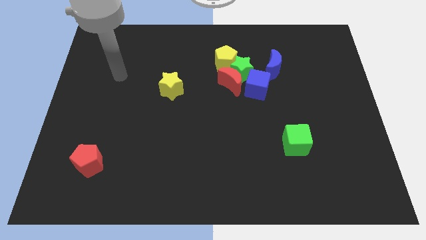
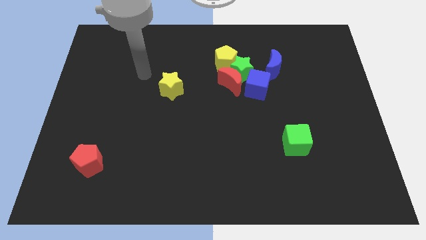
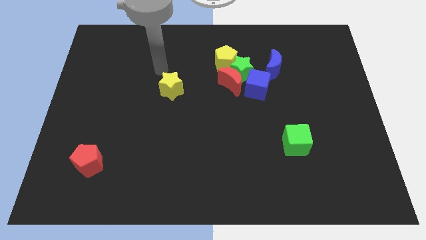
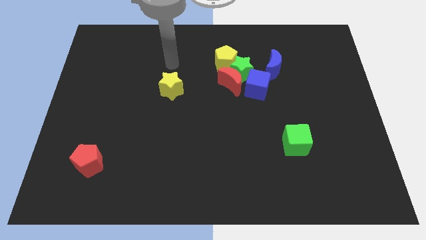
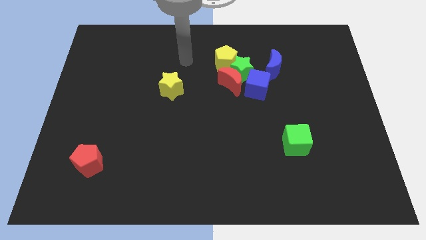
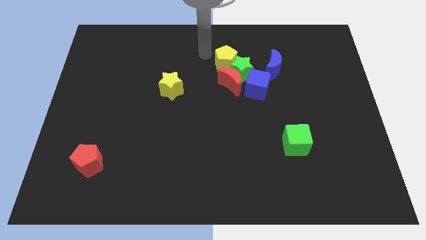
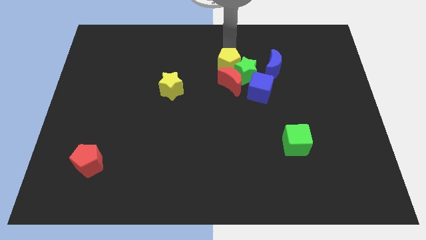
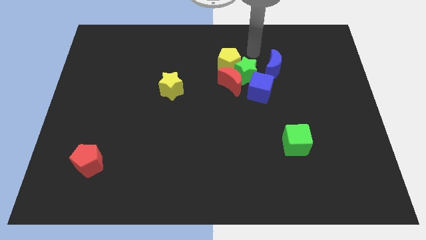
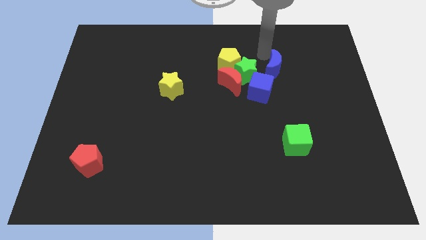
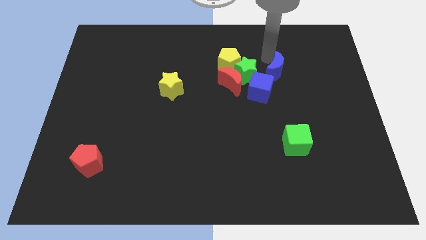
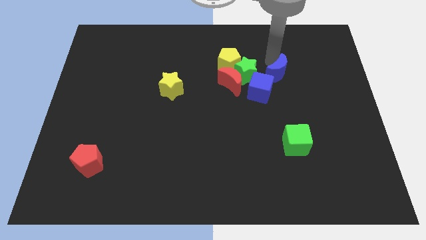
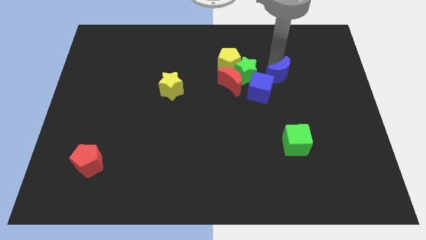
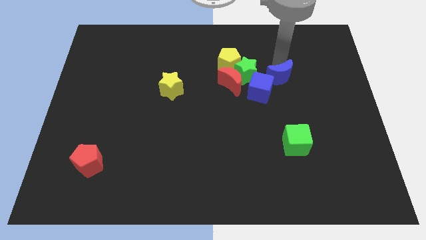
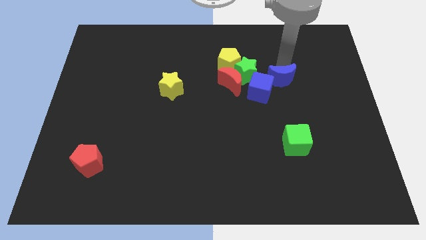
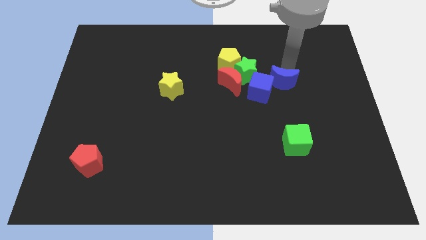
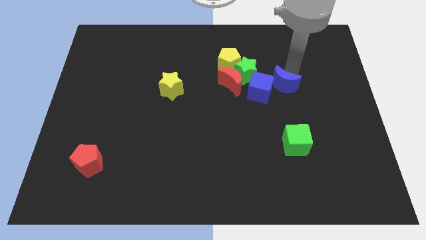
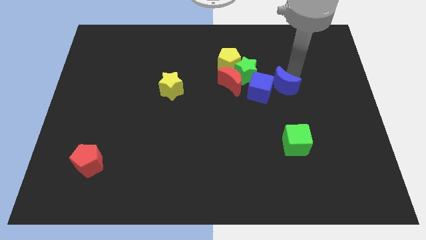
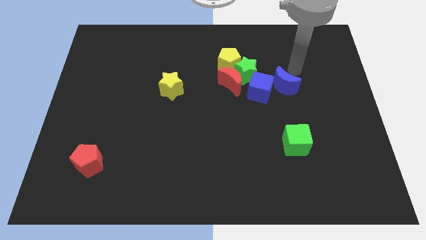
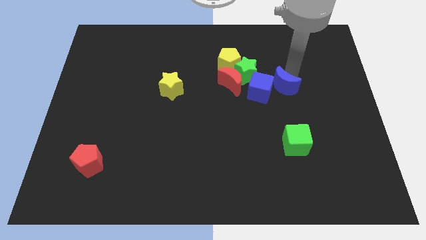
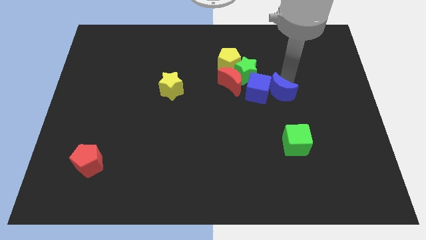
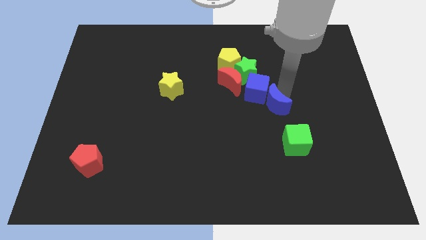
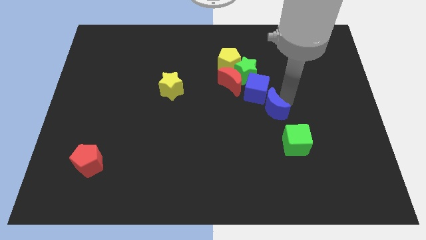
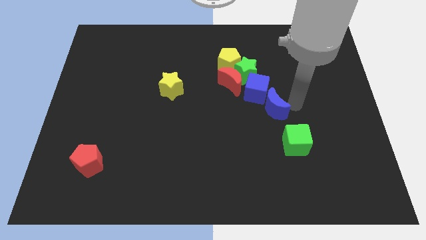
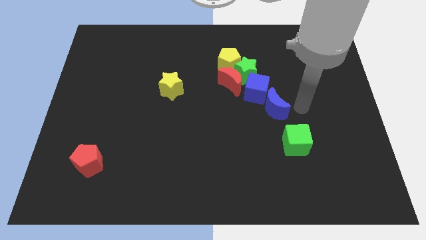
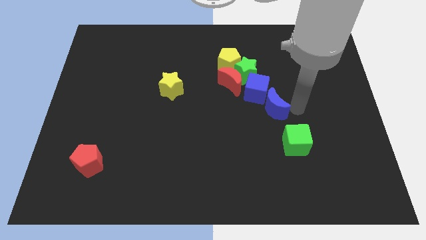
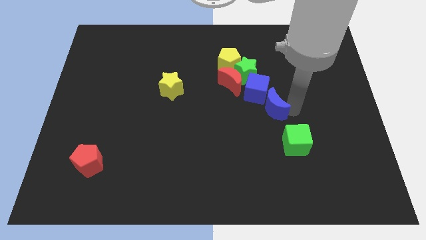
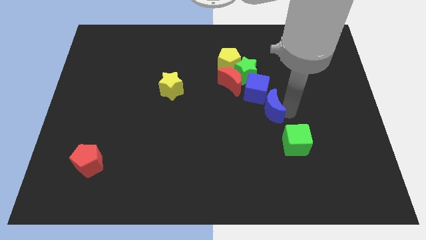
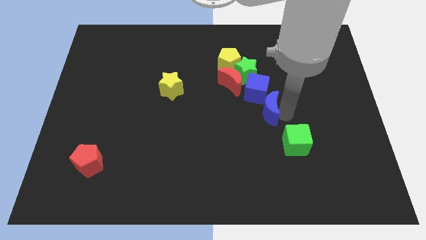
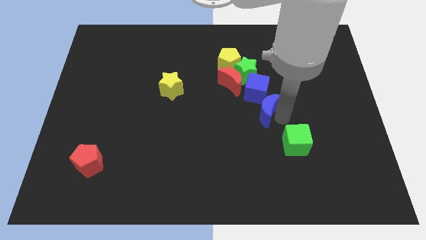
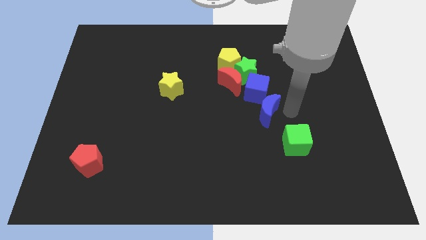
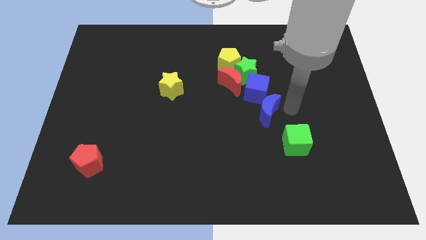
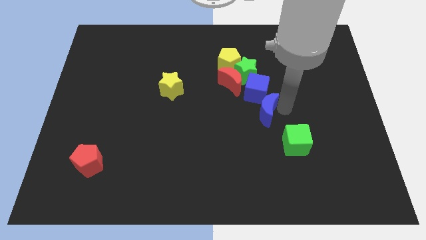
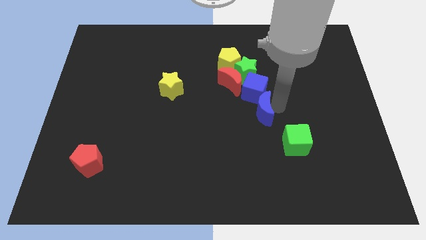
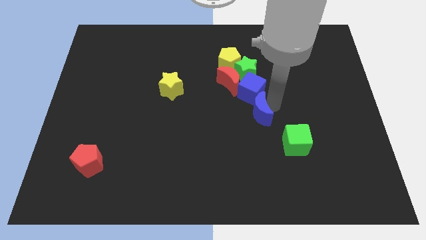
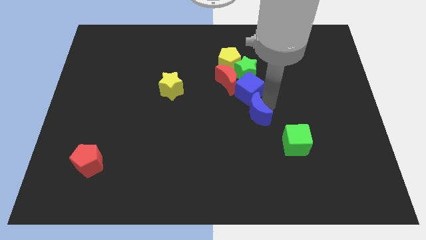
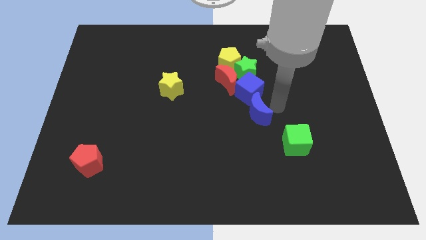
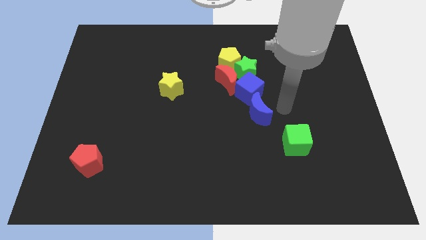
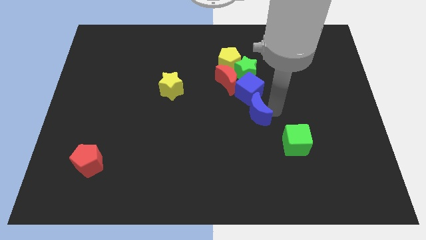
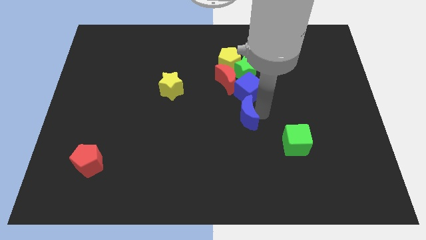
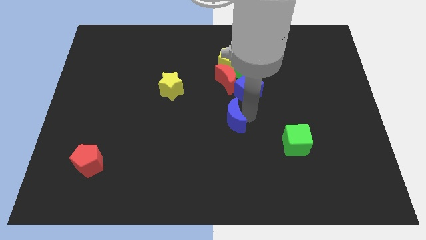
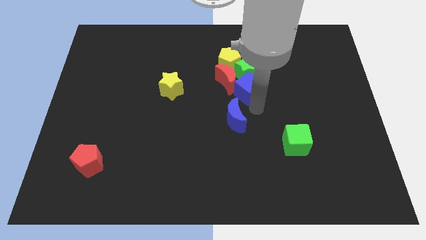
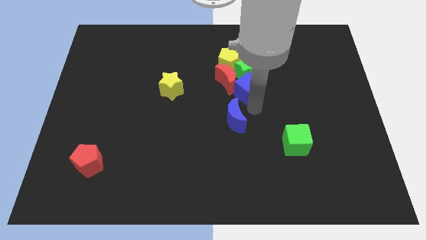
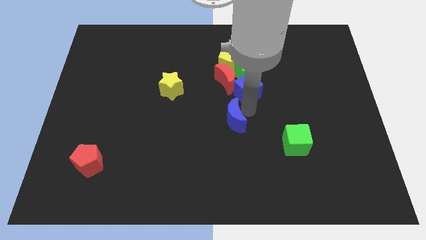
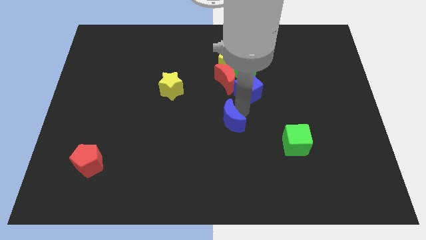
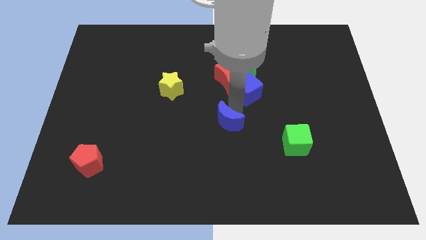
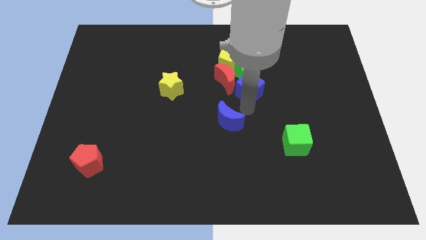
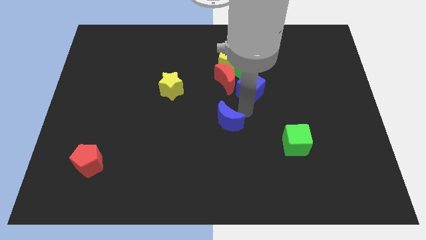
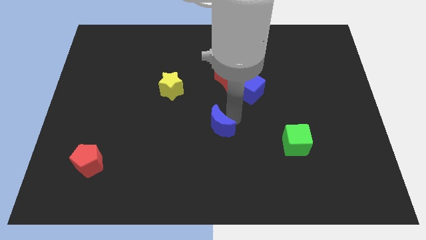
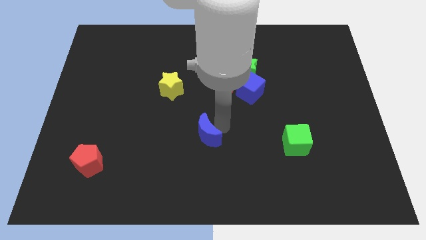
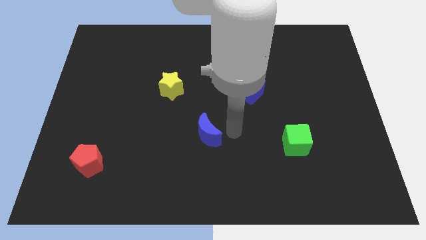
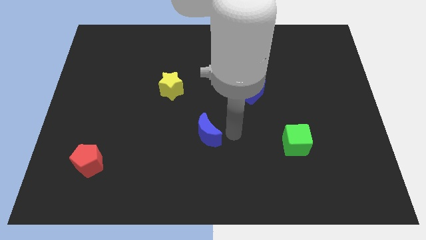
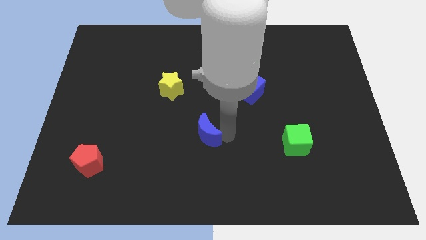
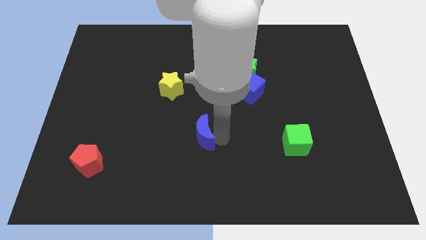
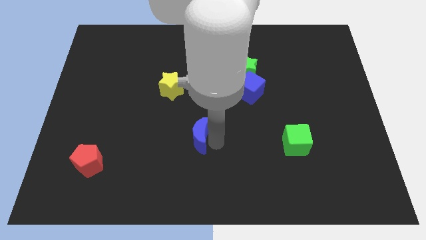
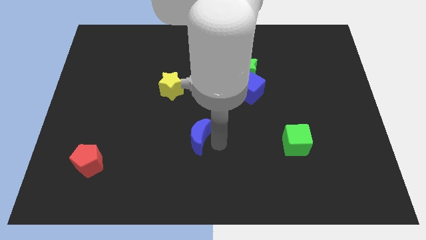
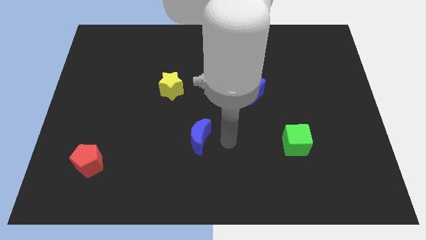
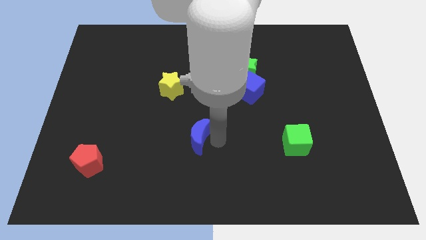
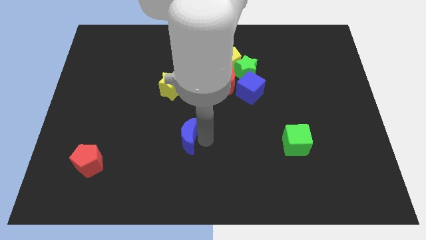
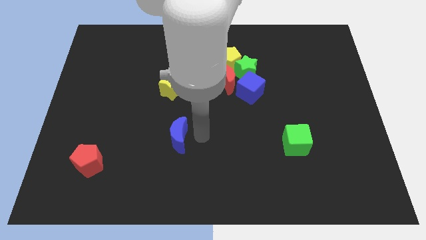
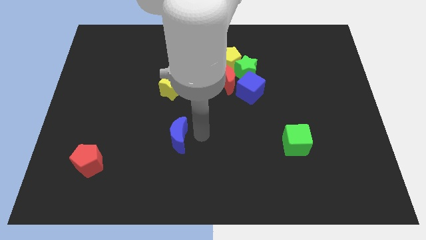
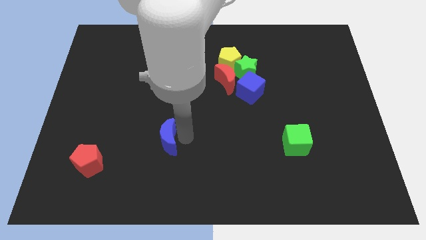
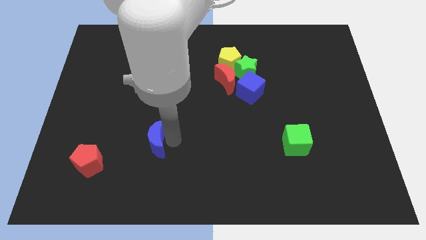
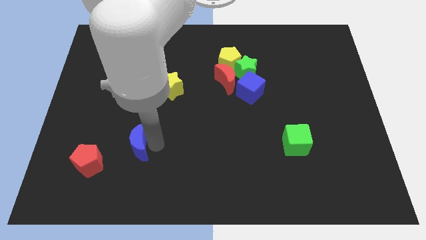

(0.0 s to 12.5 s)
put the blue moon to the top right side of the red pentagon

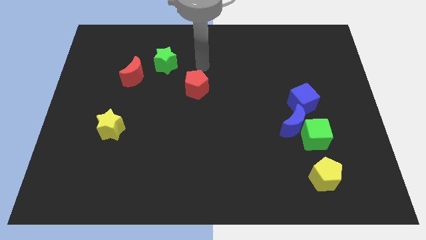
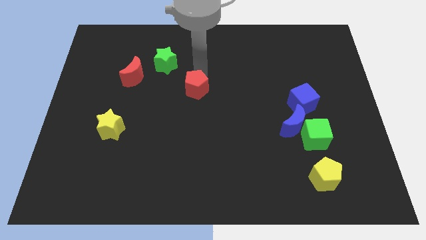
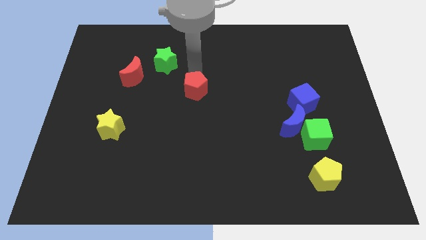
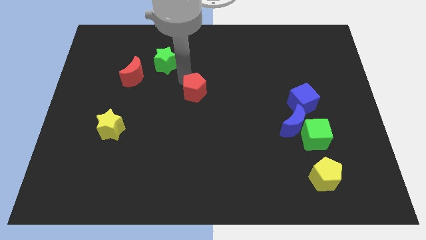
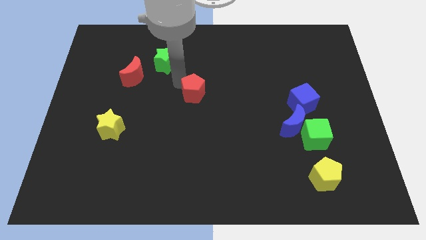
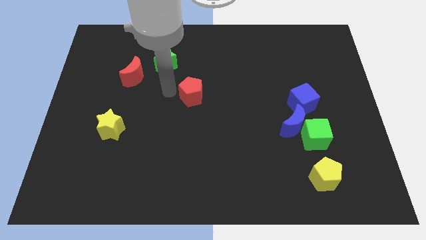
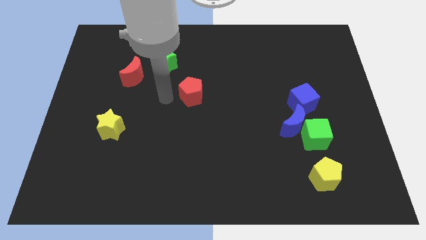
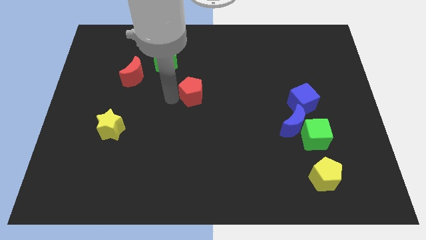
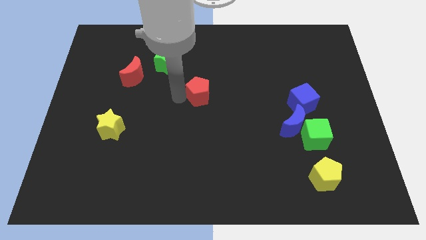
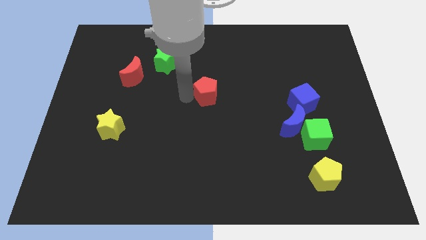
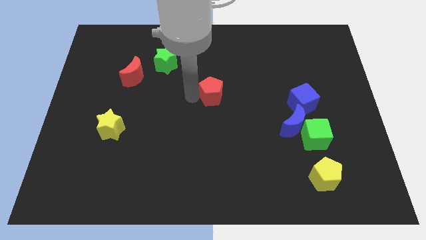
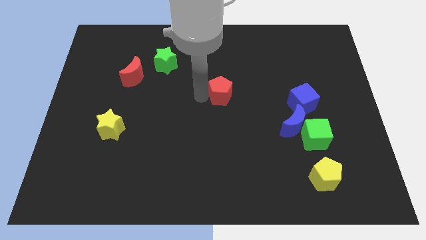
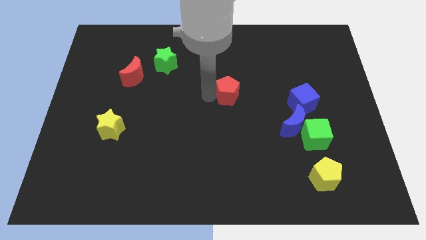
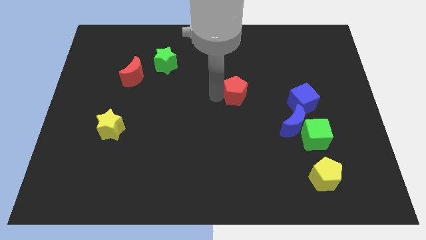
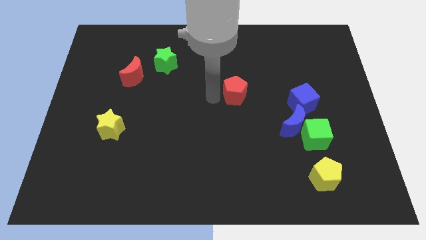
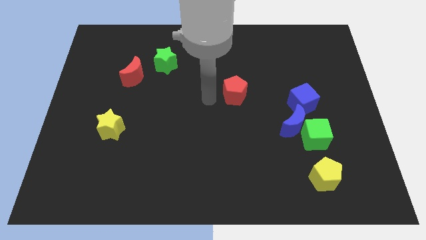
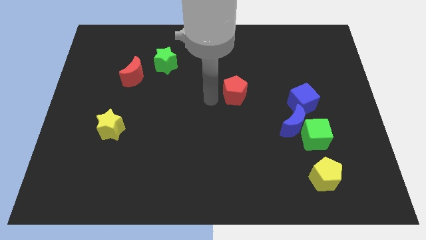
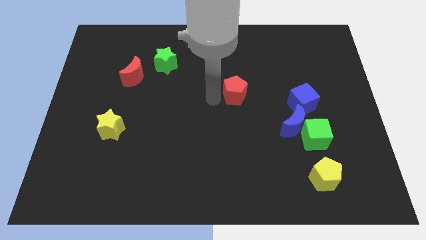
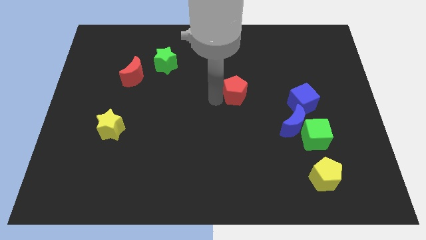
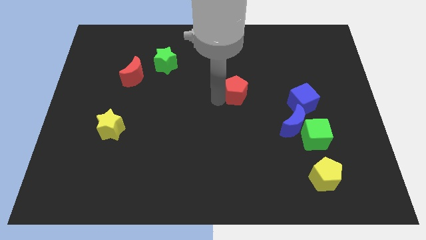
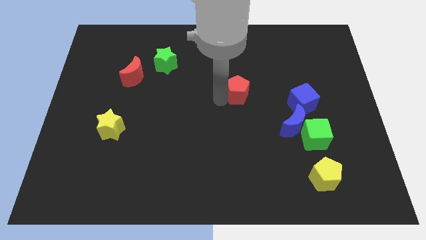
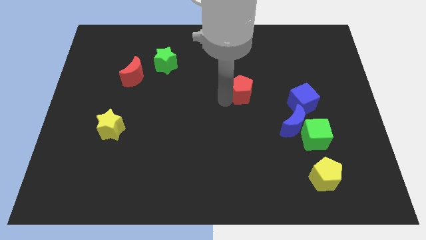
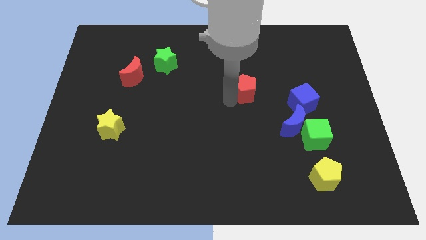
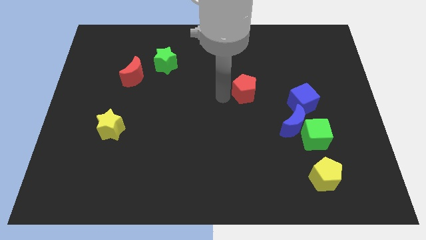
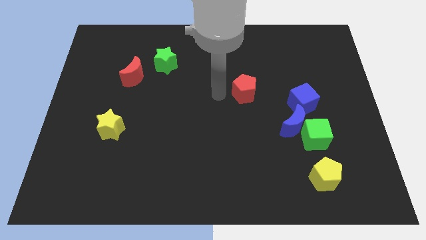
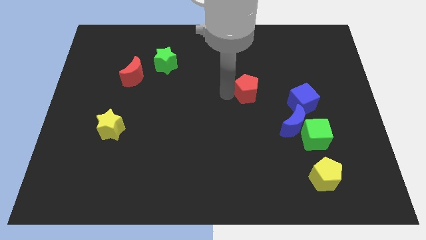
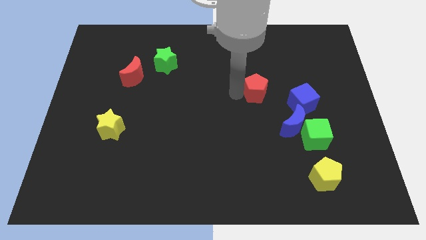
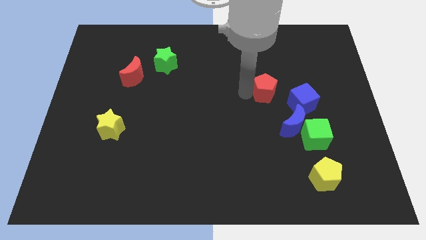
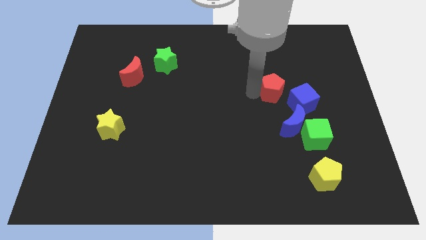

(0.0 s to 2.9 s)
slide the red pentagon to the top of the blue moon
